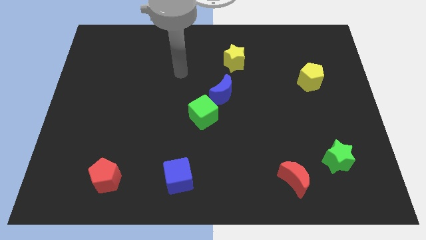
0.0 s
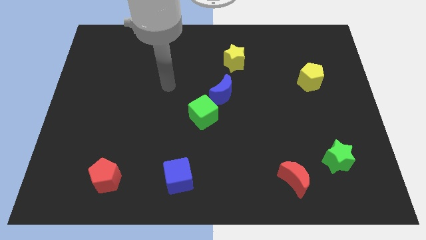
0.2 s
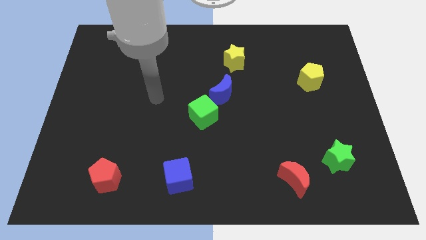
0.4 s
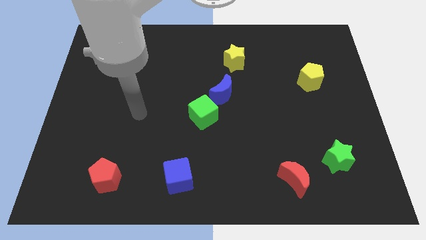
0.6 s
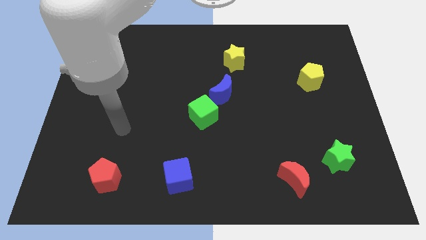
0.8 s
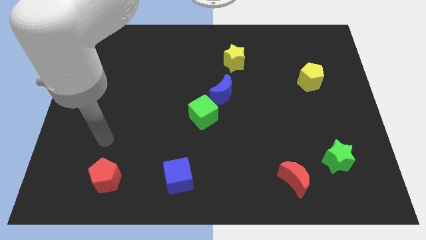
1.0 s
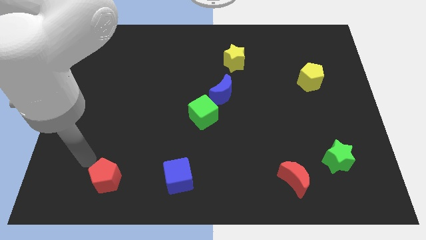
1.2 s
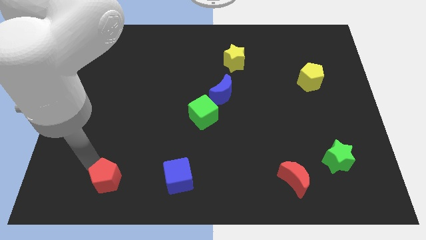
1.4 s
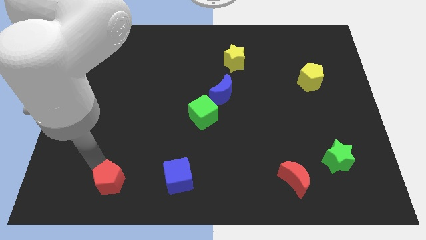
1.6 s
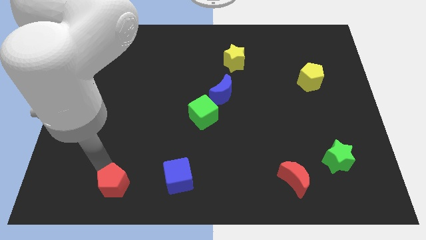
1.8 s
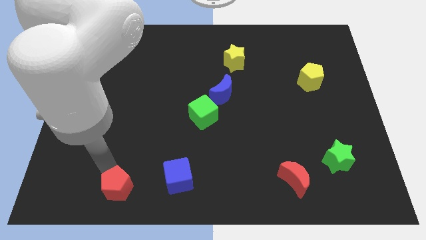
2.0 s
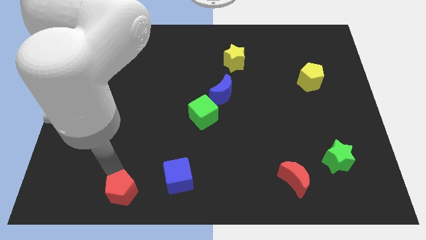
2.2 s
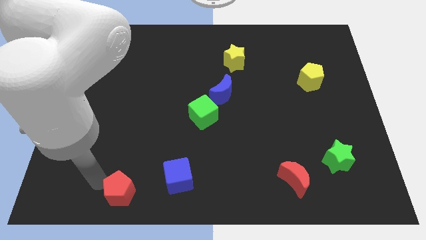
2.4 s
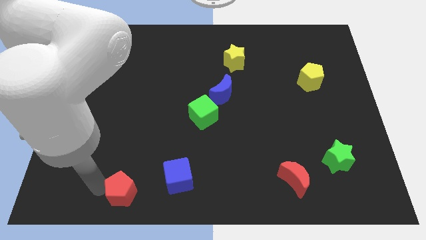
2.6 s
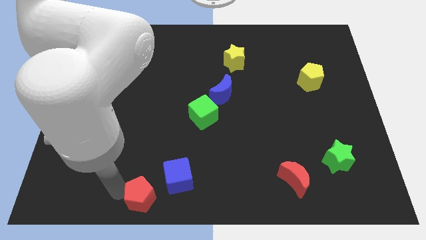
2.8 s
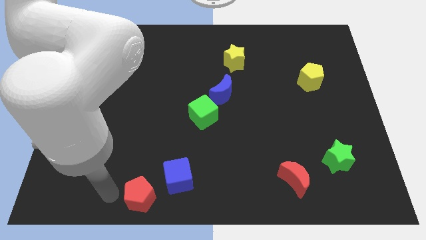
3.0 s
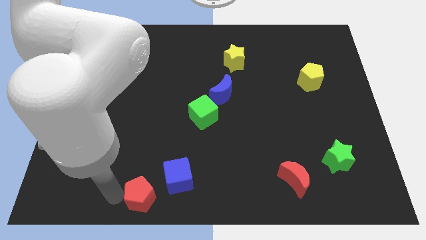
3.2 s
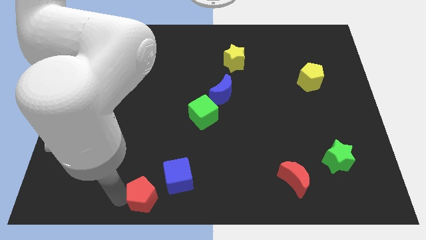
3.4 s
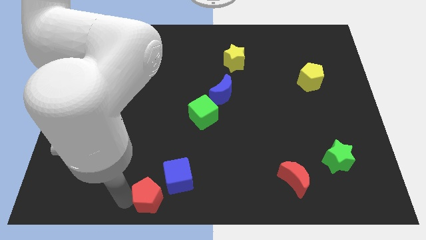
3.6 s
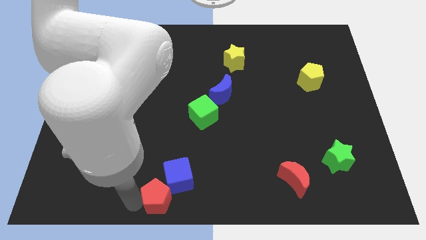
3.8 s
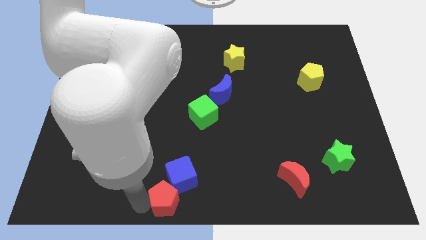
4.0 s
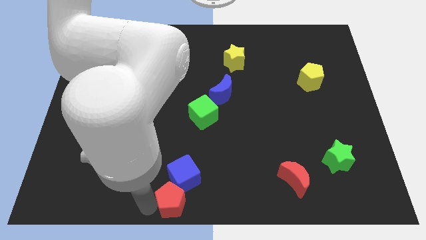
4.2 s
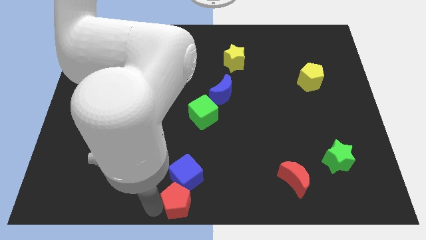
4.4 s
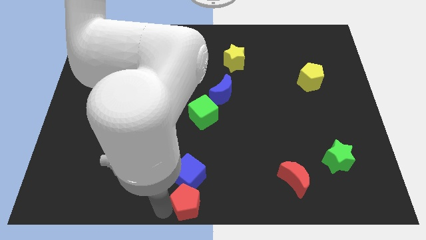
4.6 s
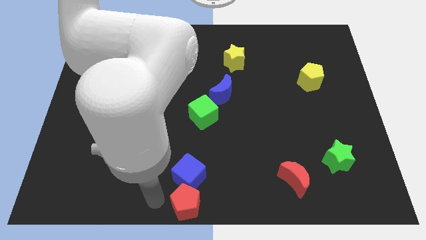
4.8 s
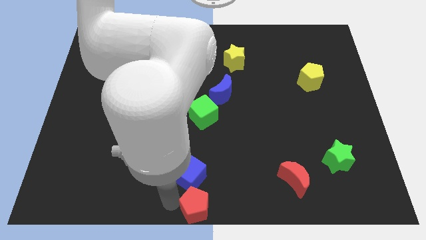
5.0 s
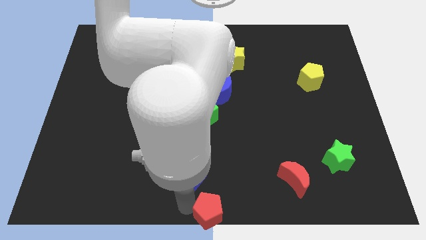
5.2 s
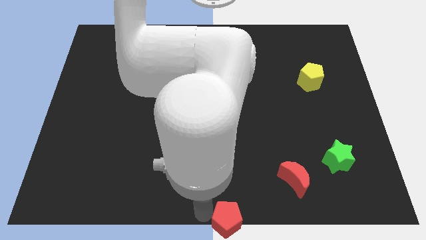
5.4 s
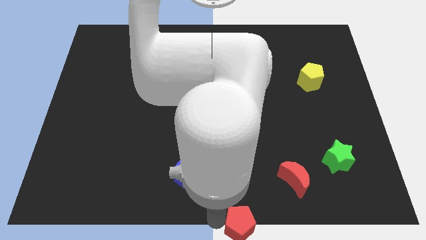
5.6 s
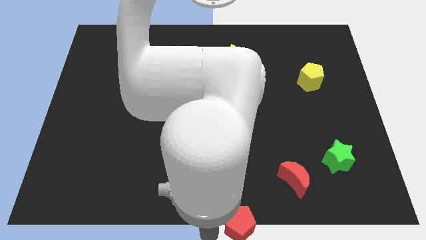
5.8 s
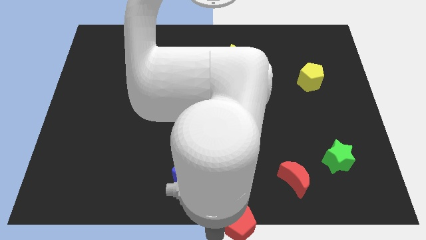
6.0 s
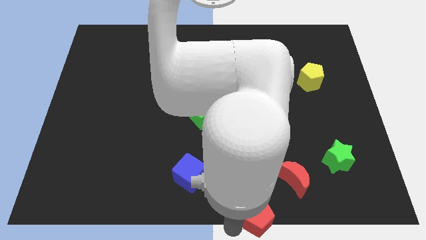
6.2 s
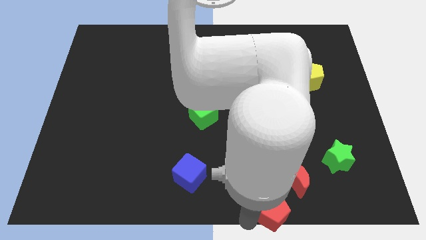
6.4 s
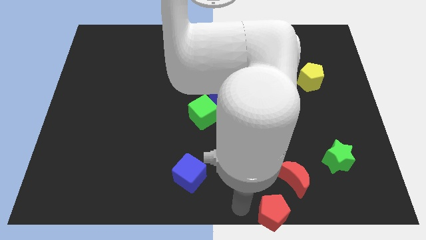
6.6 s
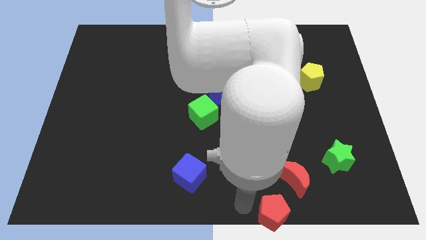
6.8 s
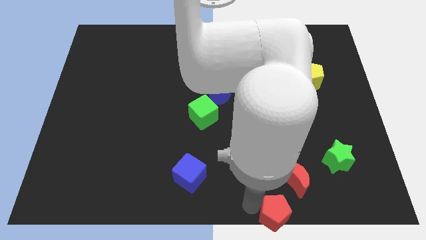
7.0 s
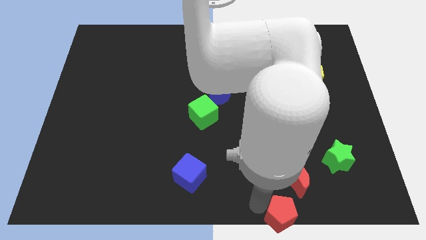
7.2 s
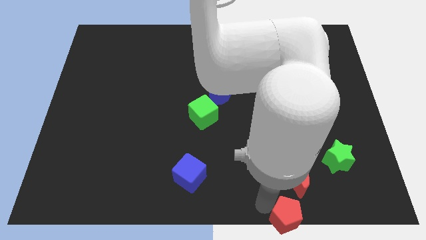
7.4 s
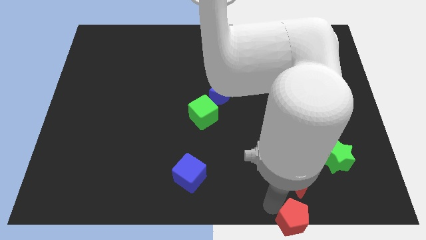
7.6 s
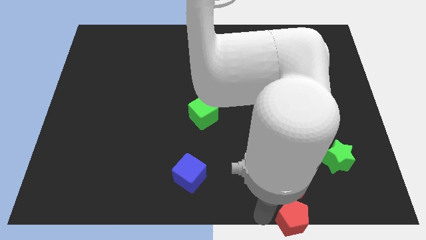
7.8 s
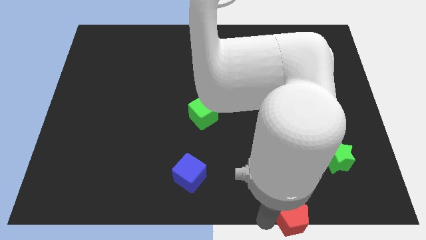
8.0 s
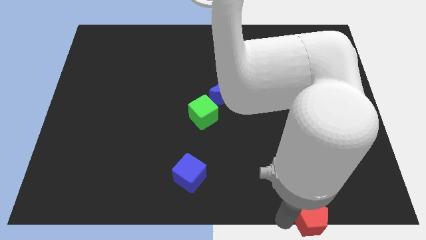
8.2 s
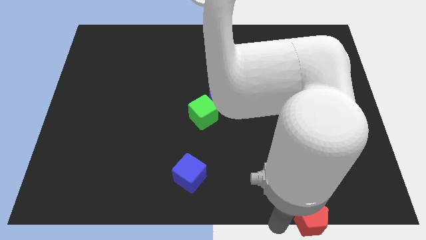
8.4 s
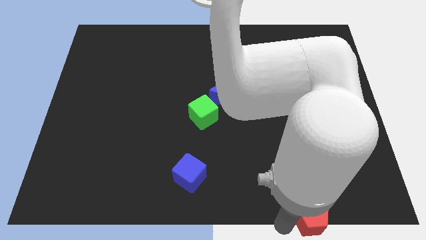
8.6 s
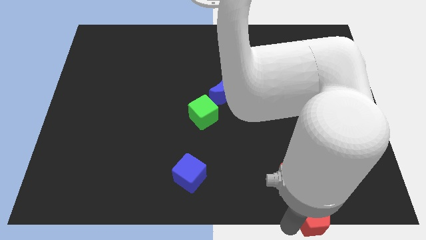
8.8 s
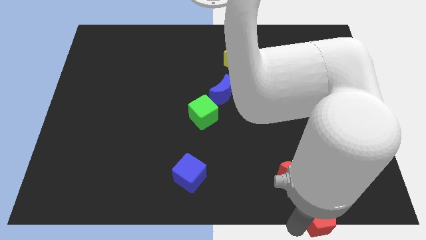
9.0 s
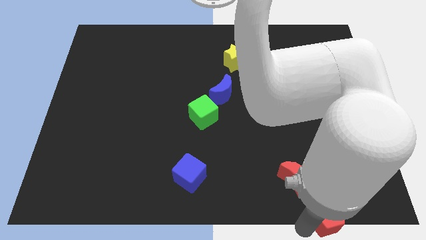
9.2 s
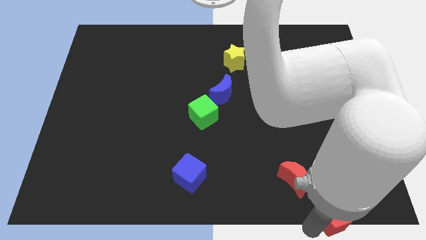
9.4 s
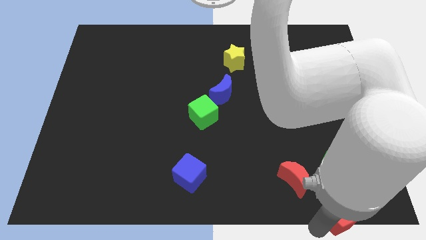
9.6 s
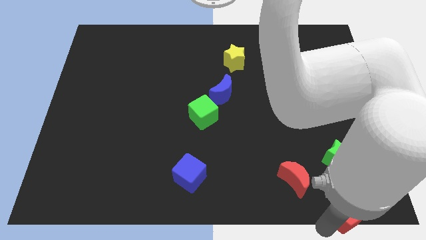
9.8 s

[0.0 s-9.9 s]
slide the red pentagon to the lower right corner

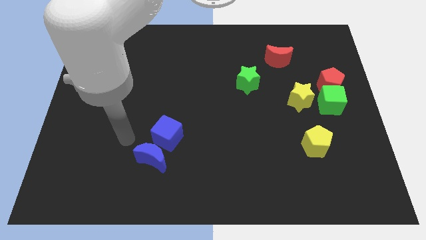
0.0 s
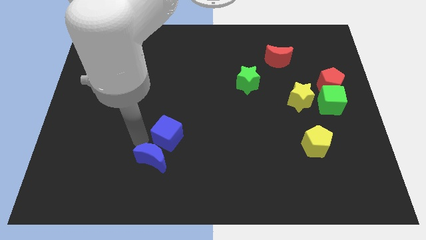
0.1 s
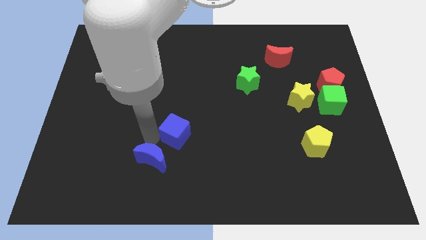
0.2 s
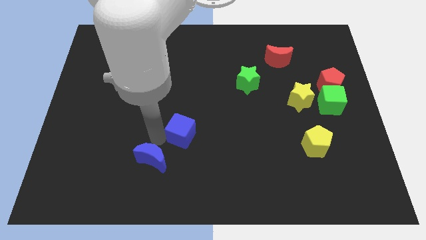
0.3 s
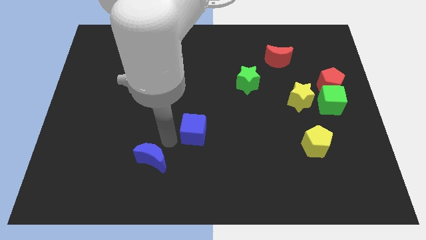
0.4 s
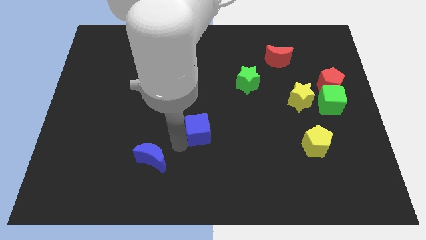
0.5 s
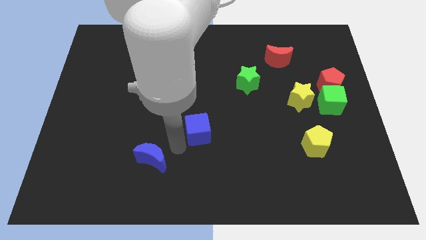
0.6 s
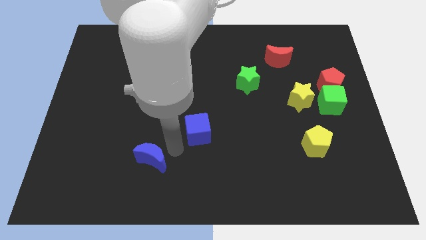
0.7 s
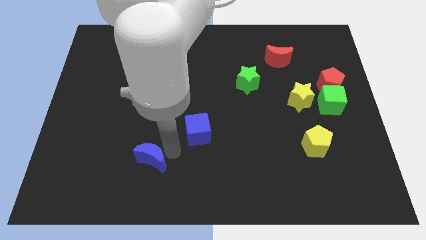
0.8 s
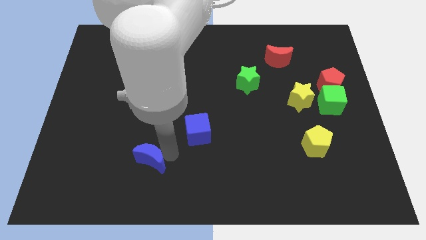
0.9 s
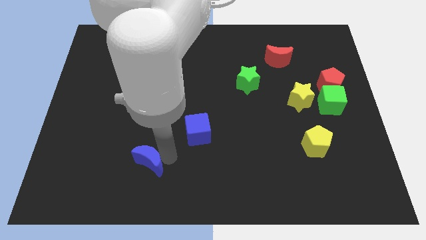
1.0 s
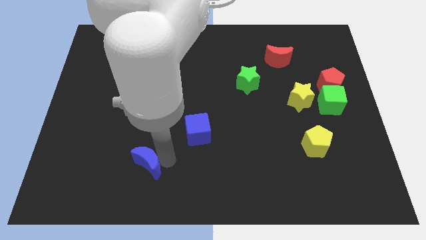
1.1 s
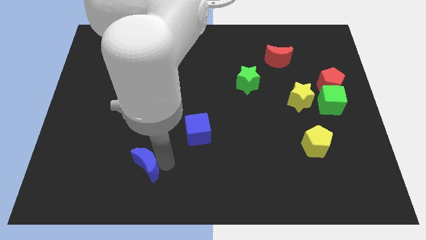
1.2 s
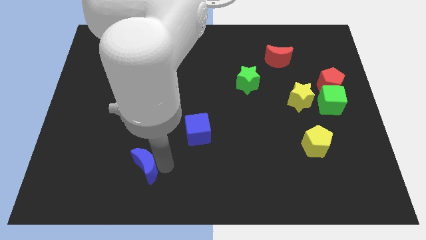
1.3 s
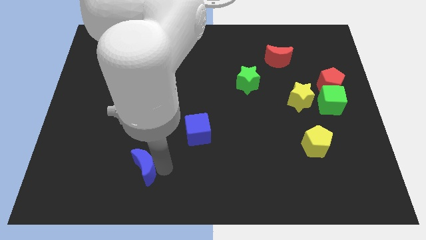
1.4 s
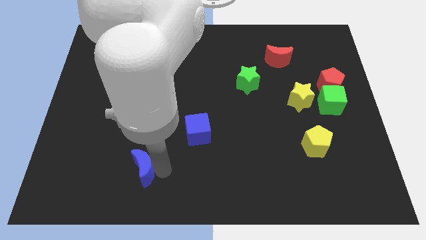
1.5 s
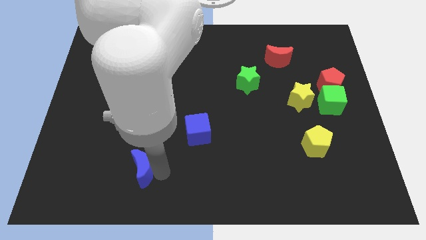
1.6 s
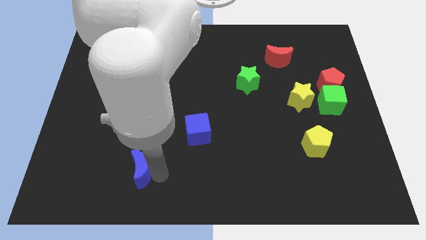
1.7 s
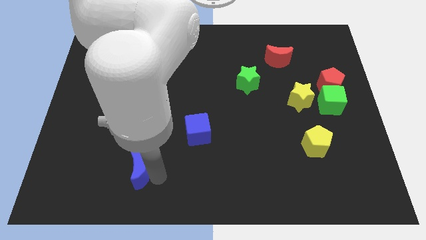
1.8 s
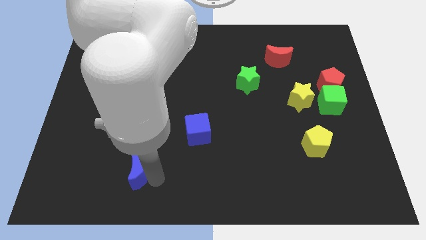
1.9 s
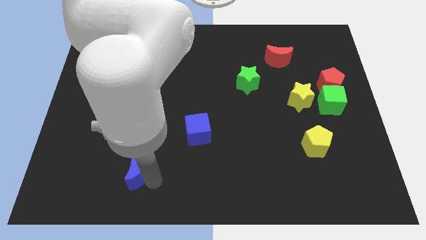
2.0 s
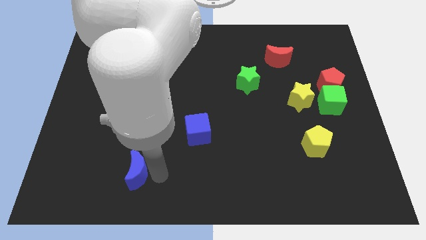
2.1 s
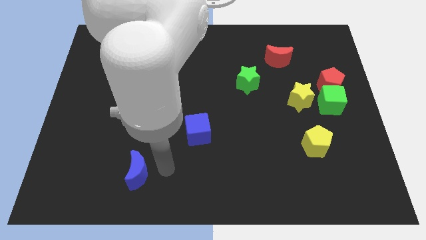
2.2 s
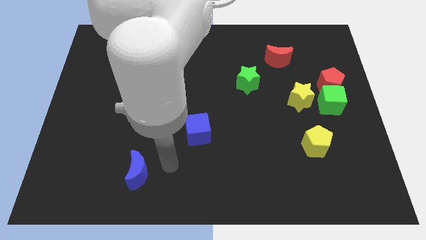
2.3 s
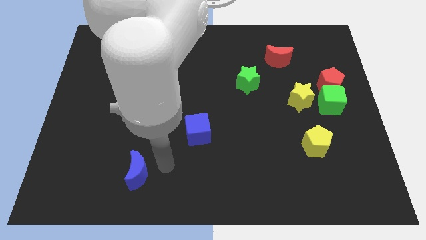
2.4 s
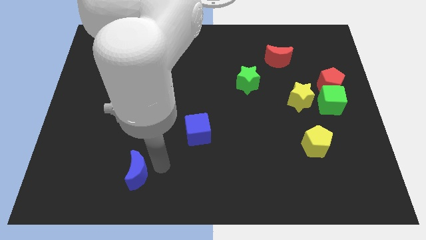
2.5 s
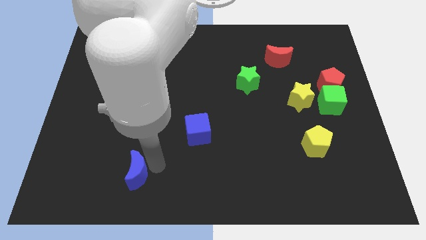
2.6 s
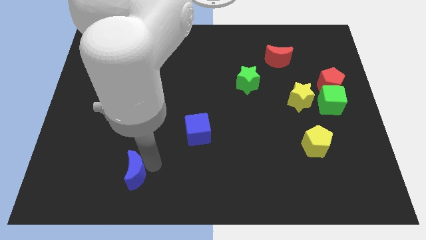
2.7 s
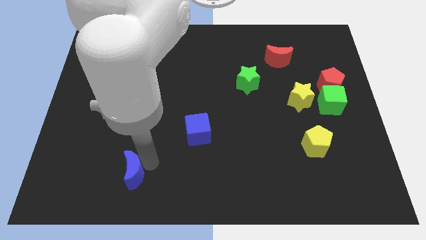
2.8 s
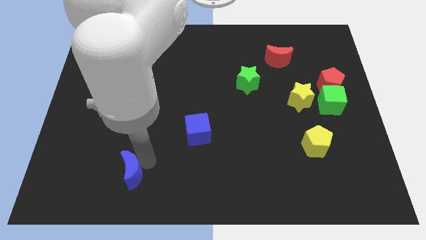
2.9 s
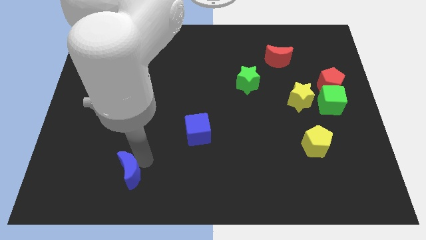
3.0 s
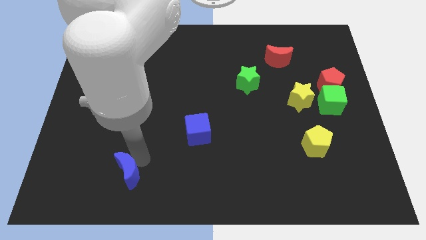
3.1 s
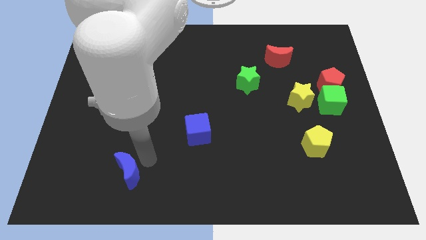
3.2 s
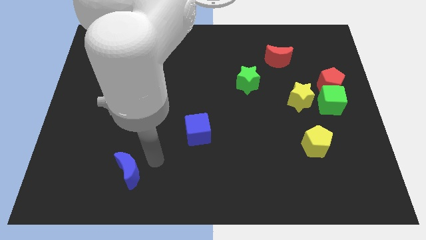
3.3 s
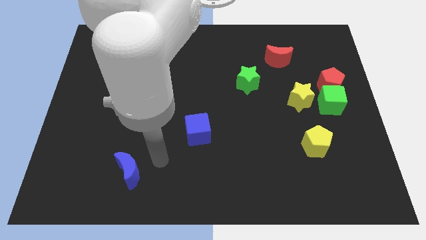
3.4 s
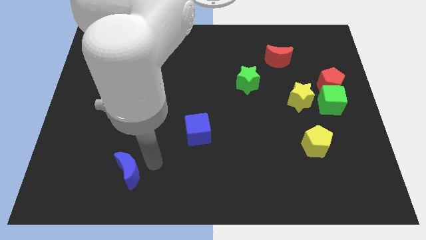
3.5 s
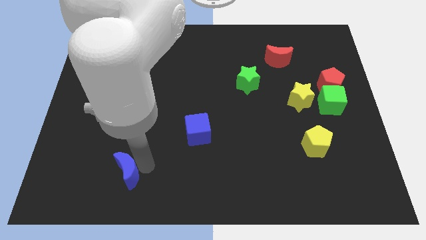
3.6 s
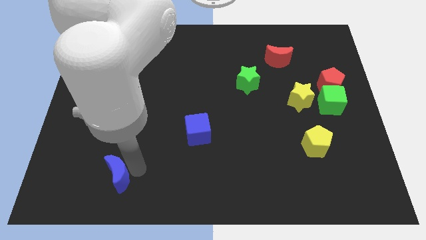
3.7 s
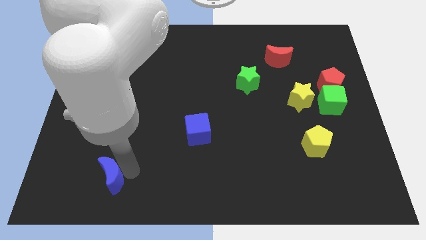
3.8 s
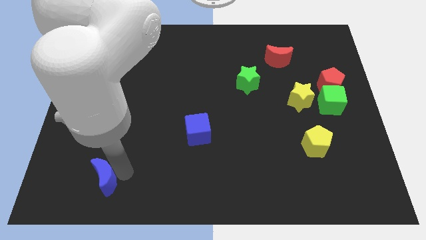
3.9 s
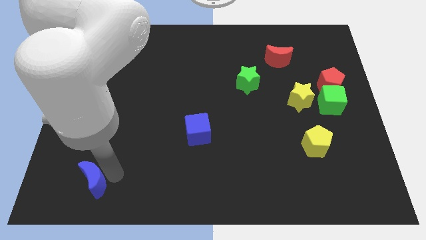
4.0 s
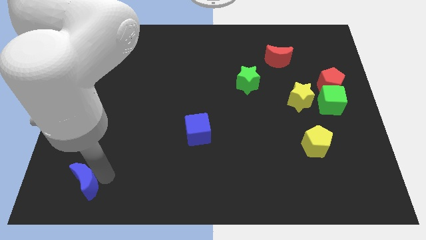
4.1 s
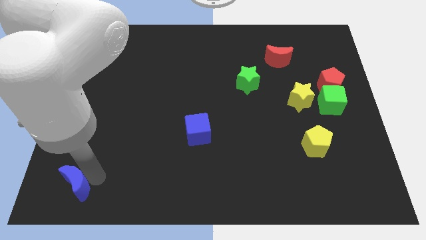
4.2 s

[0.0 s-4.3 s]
push the blue moon to the bottom left
